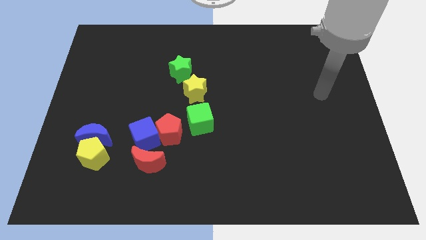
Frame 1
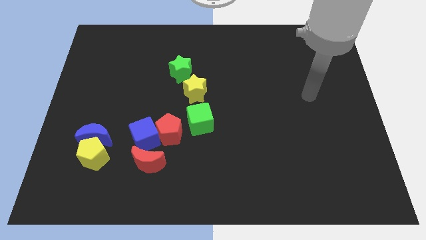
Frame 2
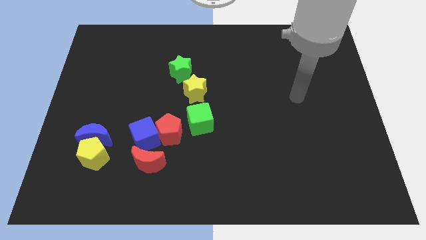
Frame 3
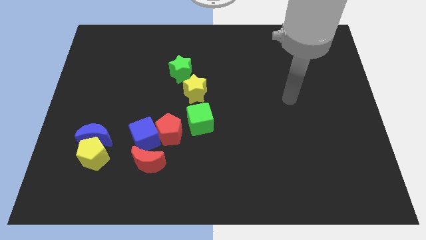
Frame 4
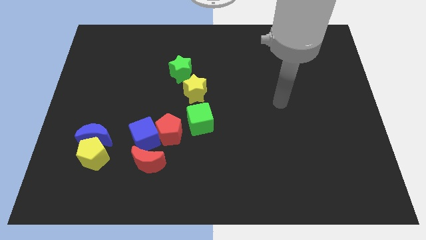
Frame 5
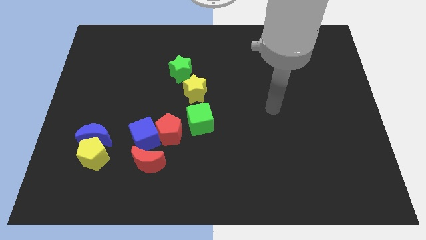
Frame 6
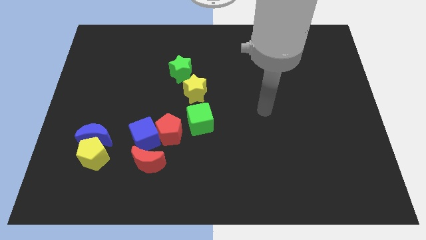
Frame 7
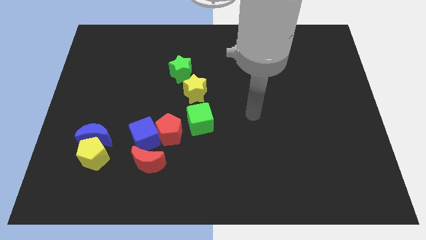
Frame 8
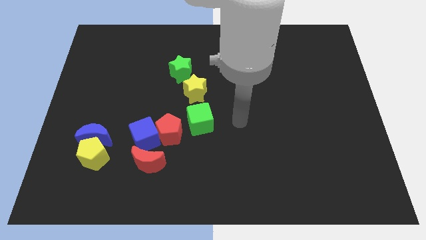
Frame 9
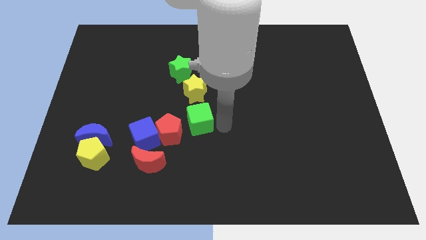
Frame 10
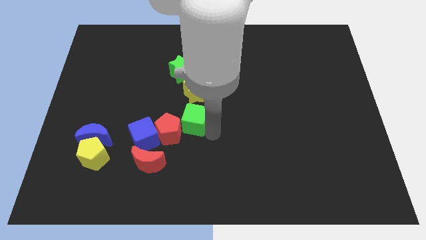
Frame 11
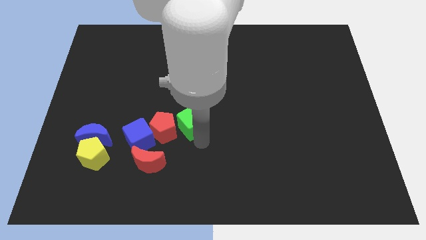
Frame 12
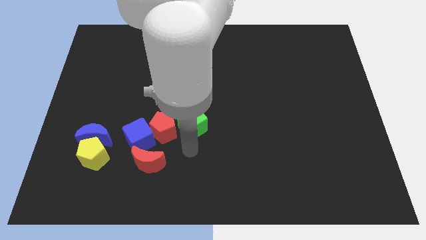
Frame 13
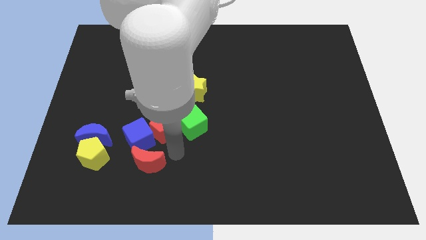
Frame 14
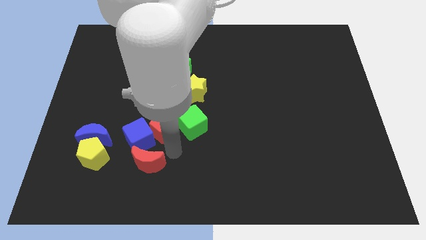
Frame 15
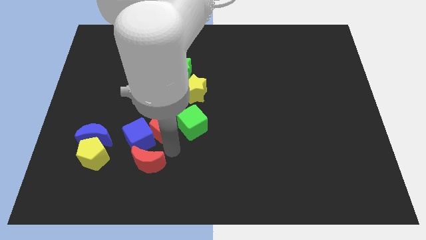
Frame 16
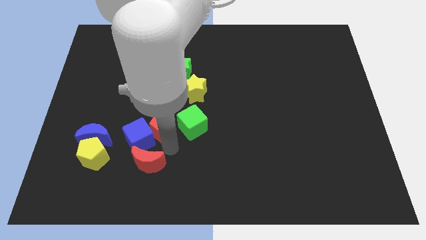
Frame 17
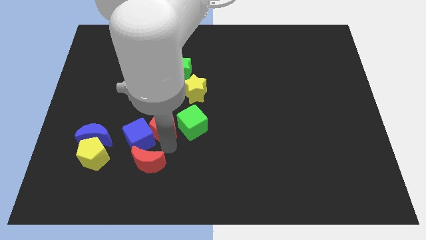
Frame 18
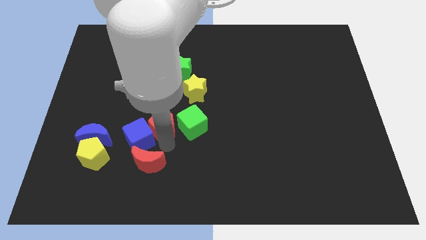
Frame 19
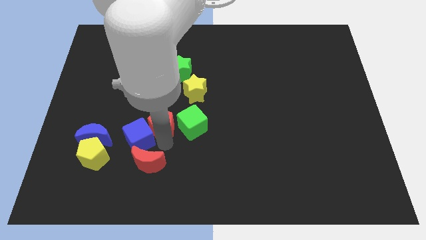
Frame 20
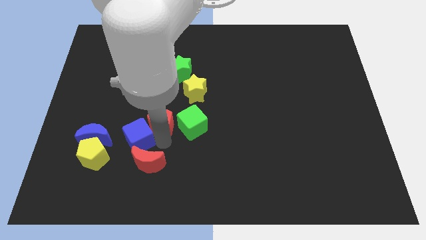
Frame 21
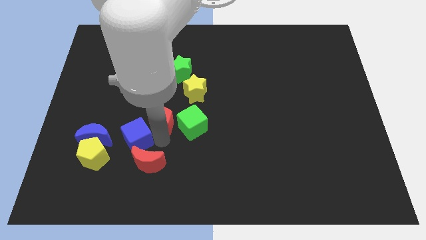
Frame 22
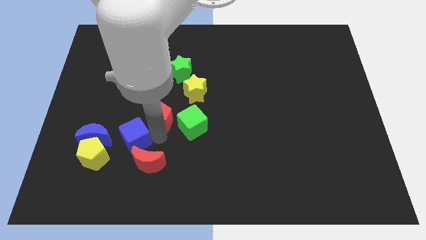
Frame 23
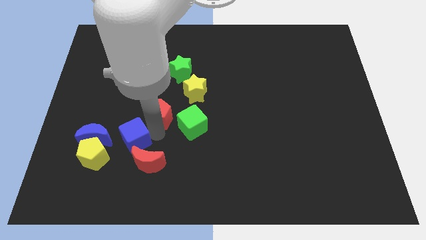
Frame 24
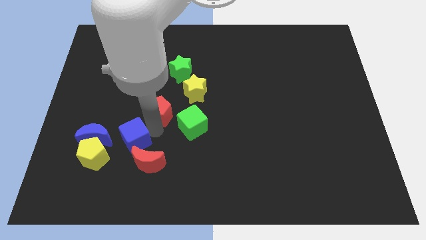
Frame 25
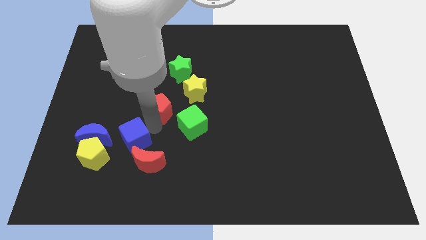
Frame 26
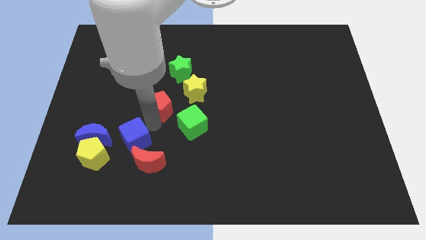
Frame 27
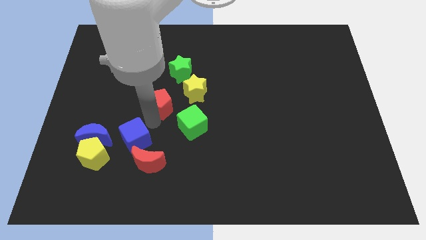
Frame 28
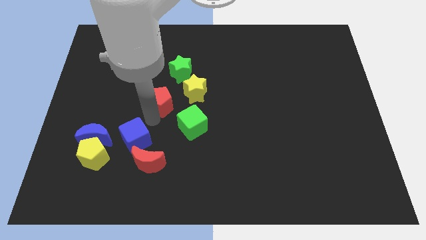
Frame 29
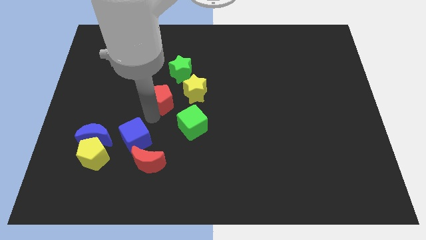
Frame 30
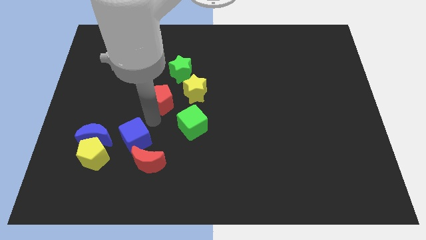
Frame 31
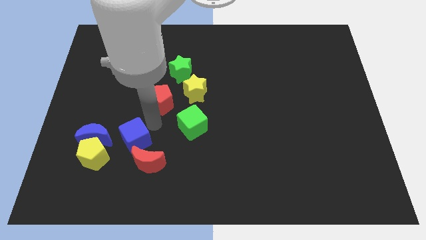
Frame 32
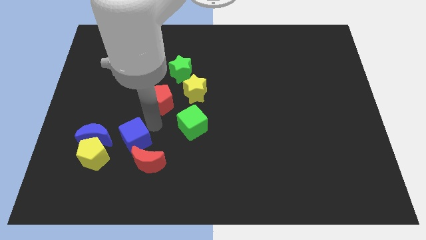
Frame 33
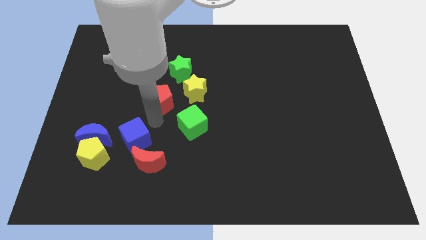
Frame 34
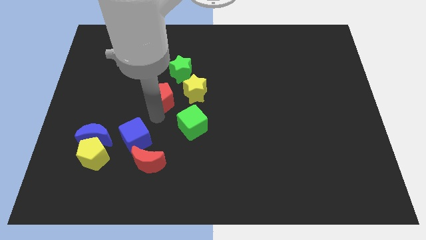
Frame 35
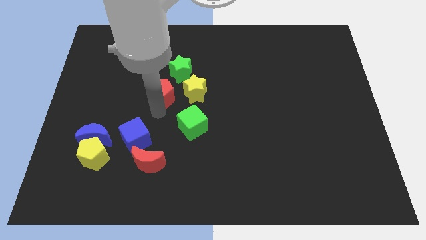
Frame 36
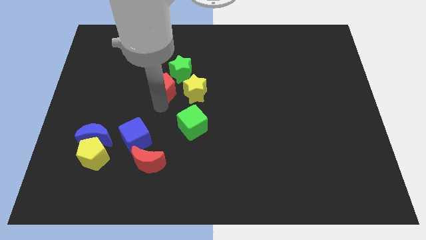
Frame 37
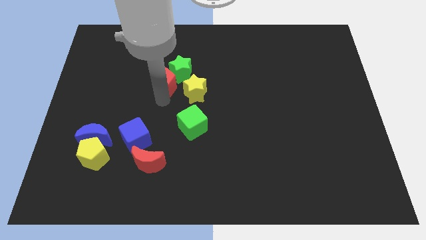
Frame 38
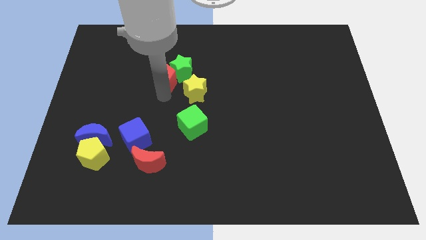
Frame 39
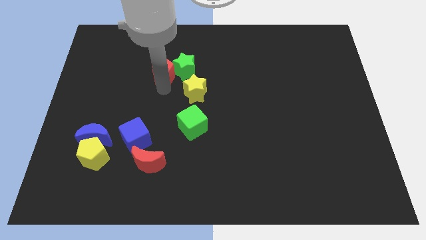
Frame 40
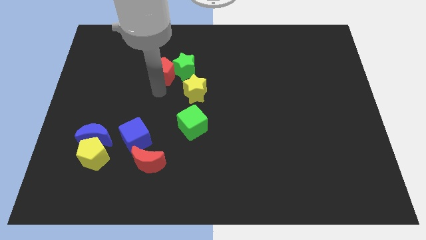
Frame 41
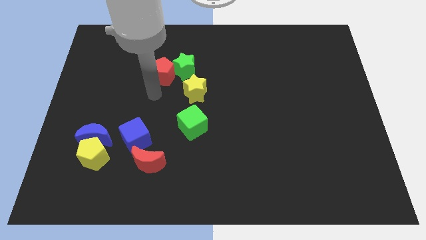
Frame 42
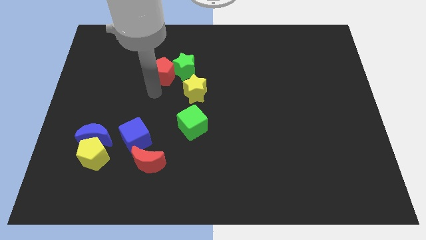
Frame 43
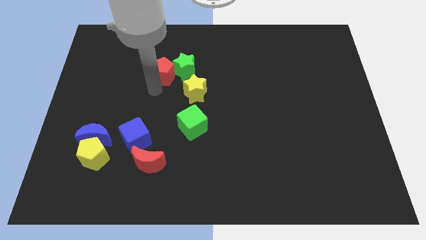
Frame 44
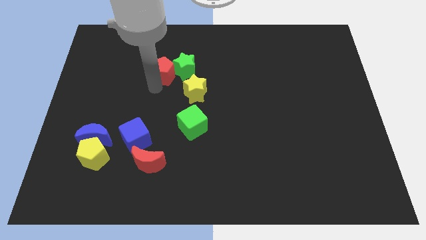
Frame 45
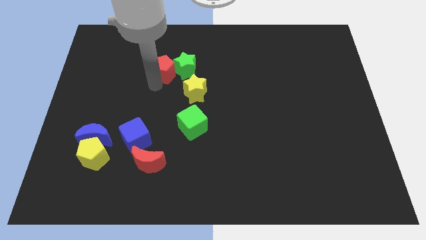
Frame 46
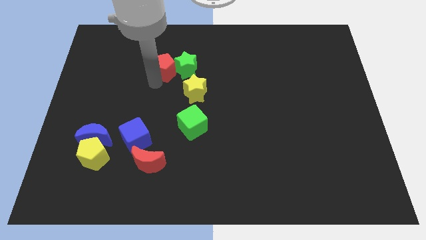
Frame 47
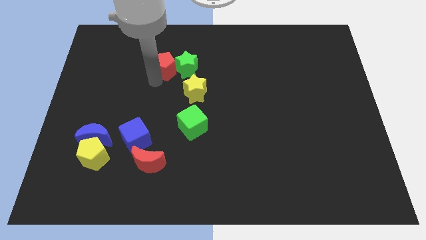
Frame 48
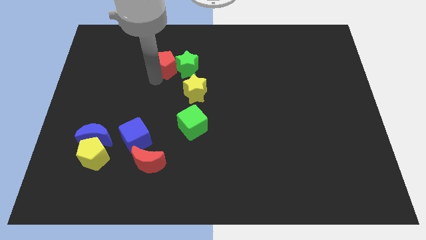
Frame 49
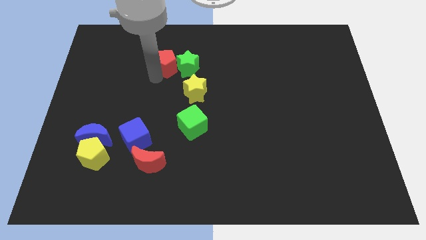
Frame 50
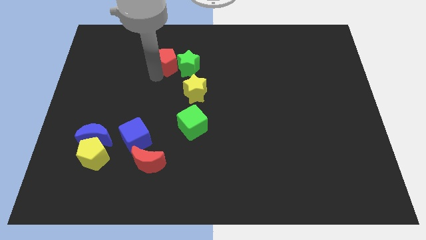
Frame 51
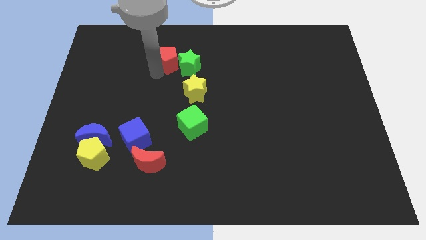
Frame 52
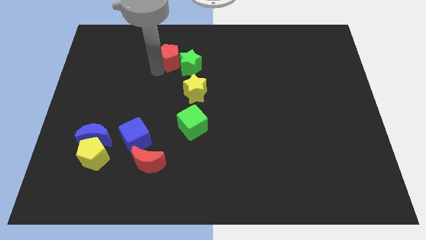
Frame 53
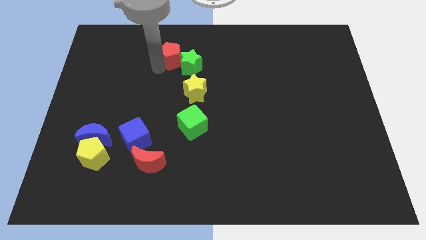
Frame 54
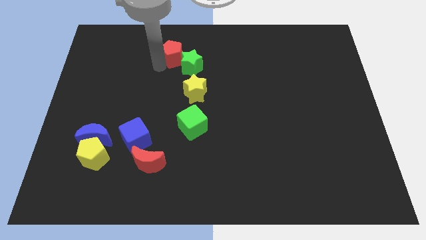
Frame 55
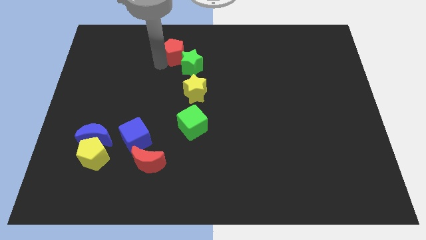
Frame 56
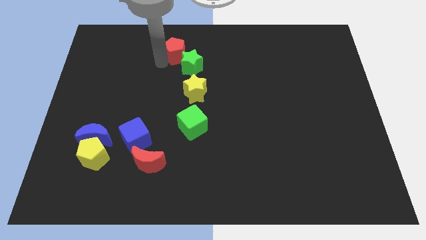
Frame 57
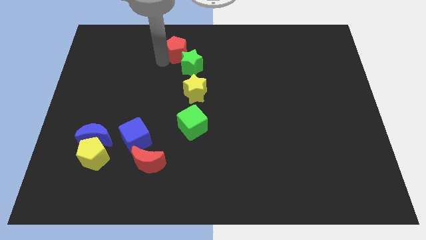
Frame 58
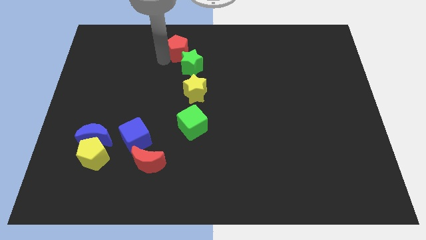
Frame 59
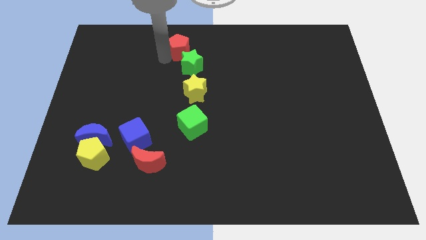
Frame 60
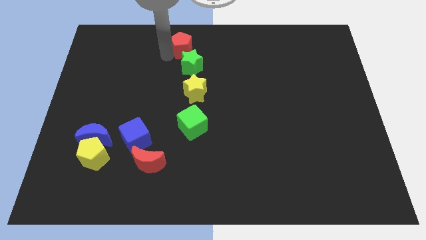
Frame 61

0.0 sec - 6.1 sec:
put the red pentagon to the top
